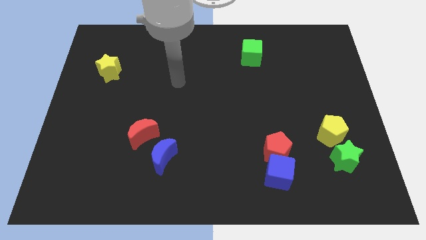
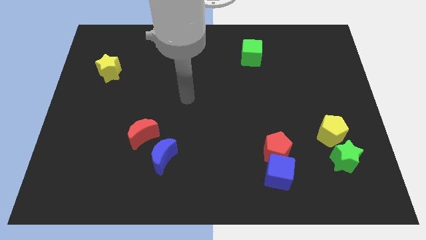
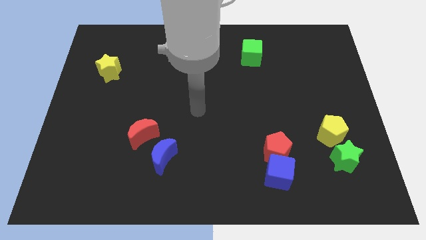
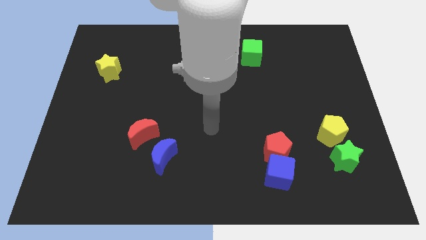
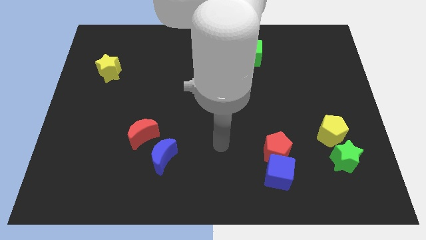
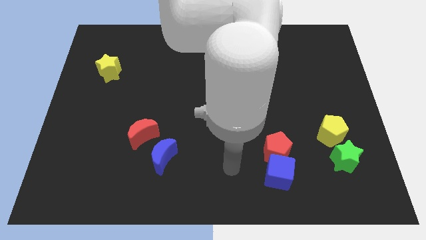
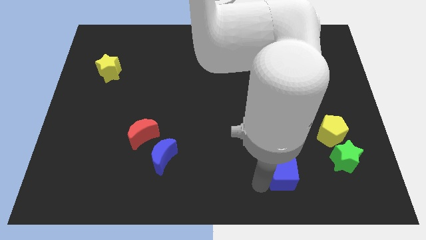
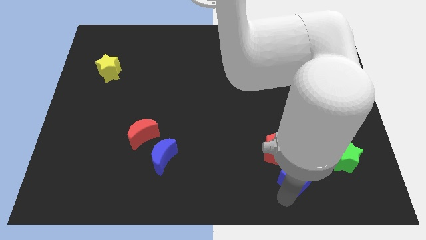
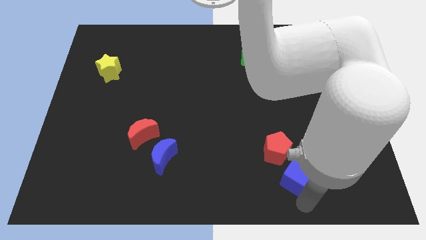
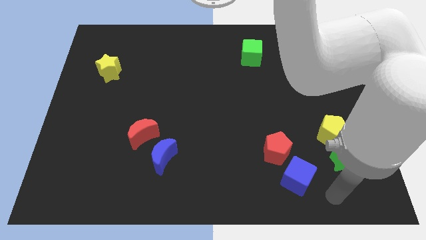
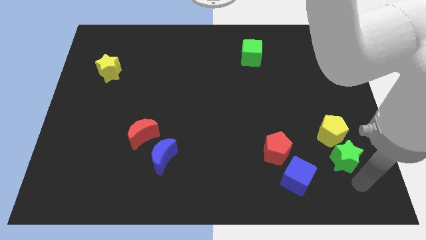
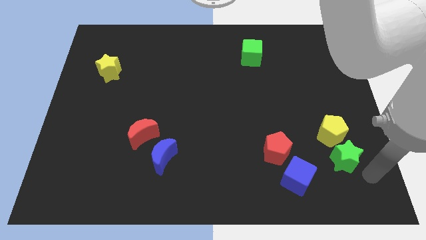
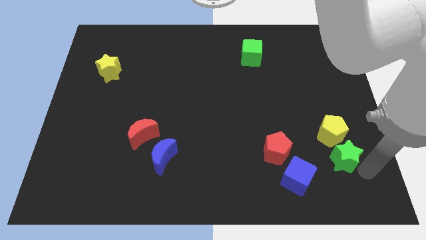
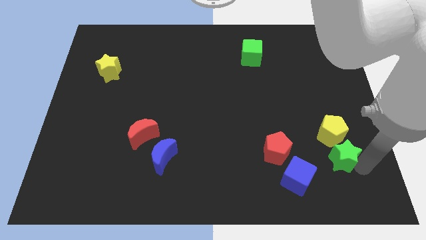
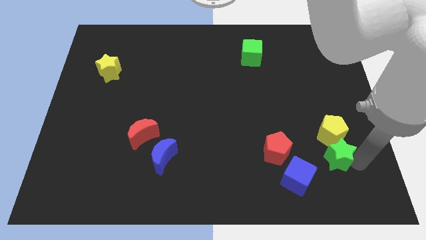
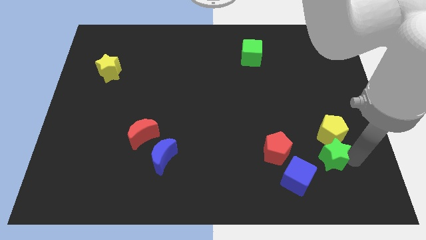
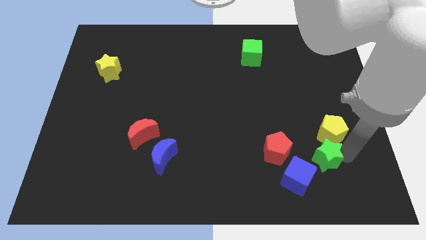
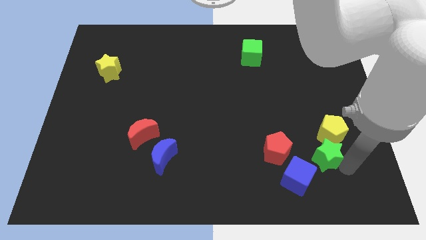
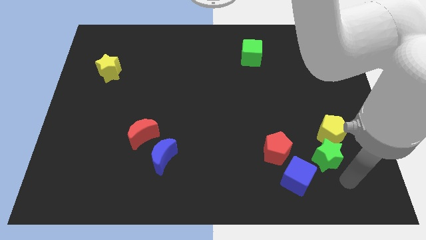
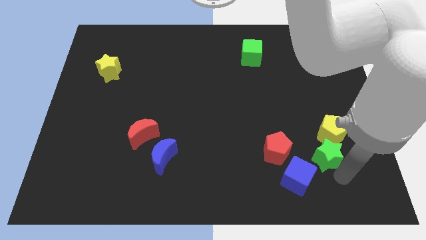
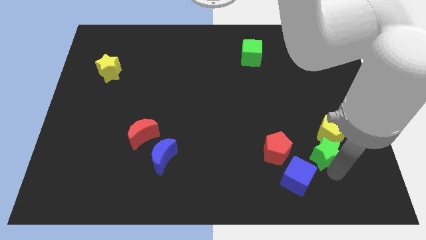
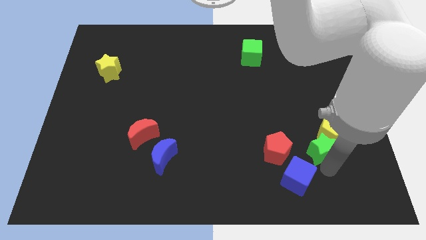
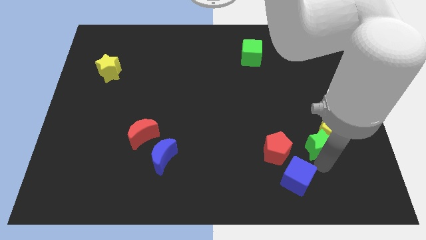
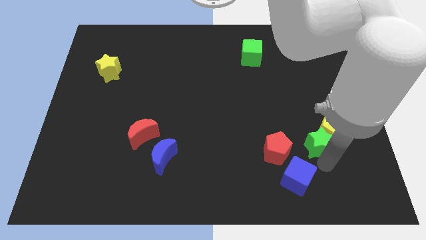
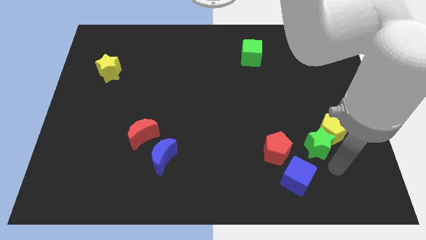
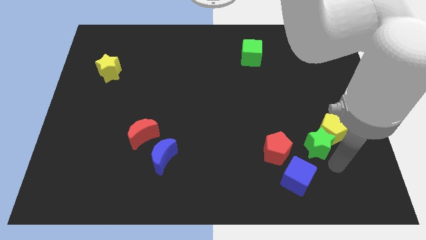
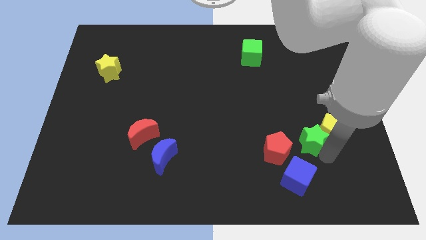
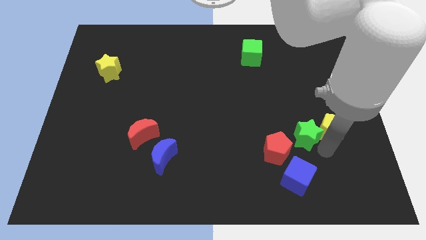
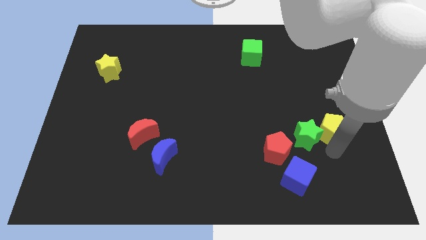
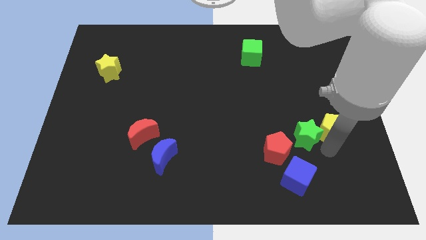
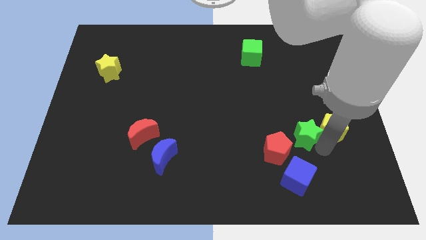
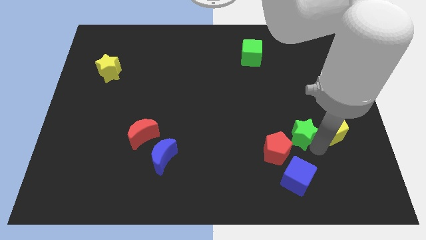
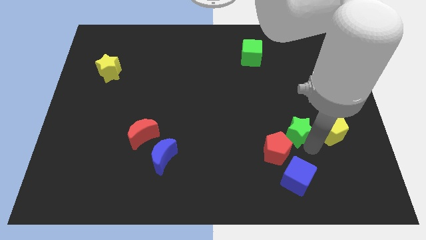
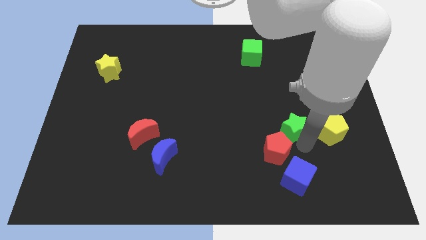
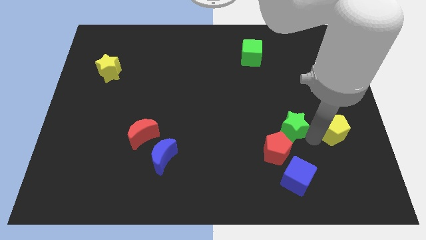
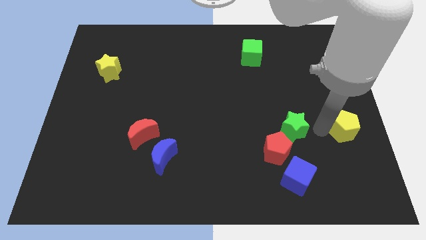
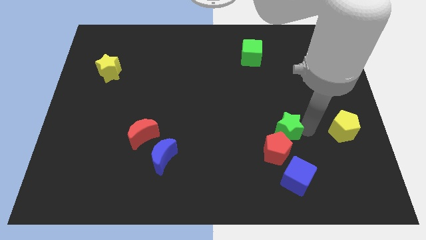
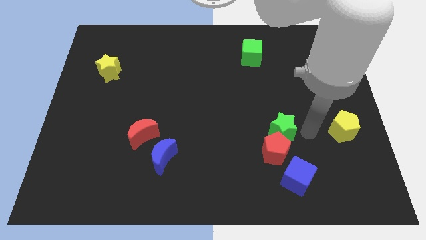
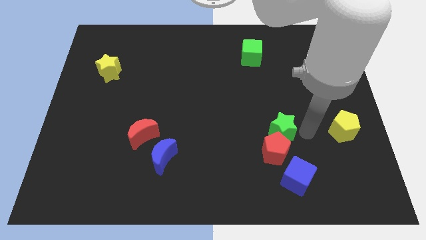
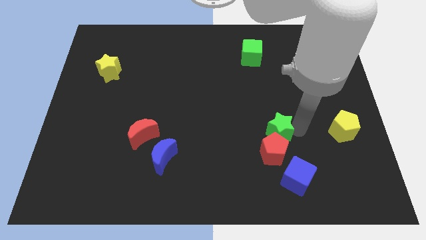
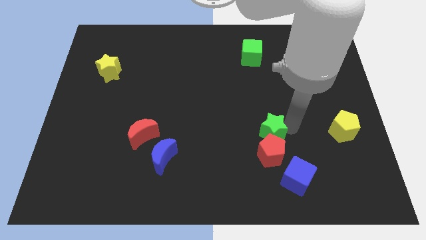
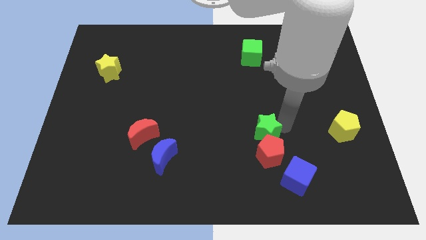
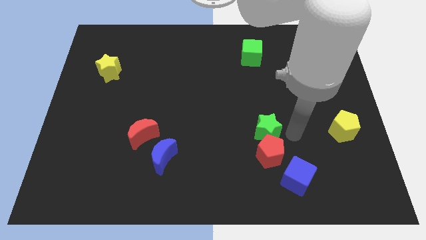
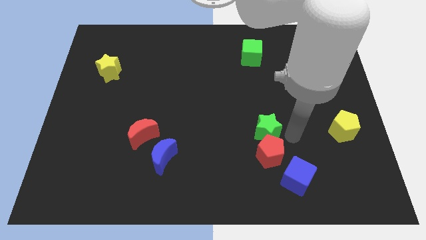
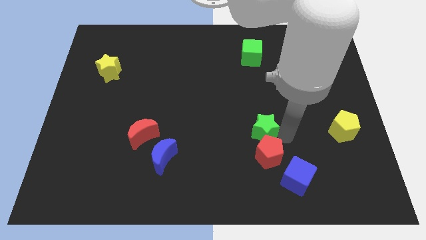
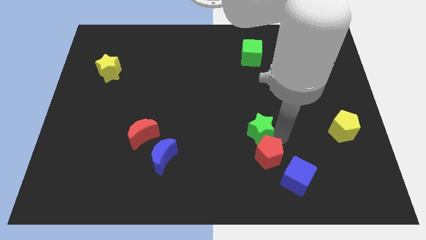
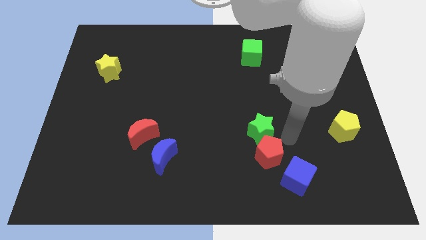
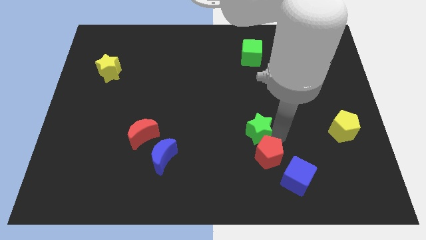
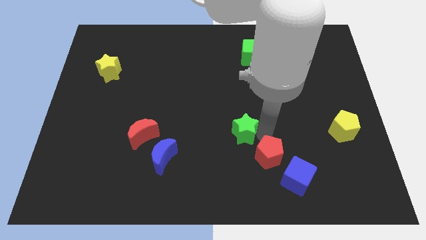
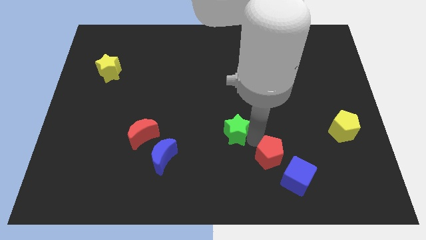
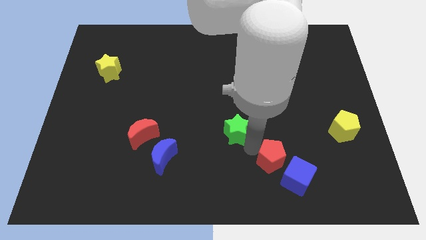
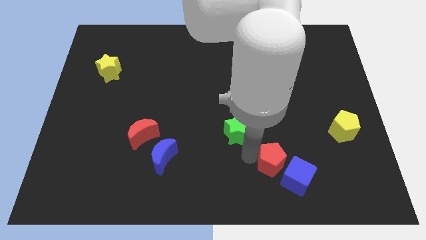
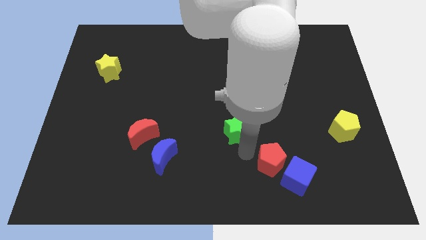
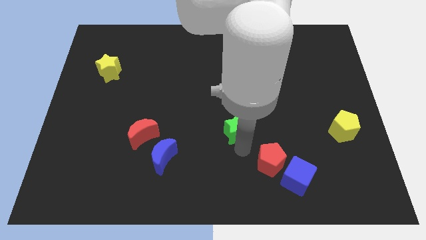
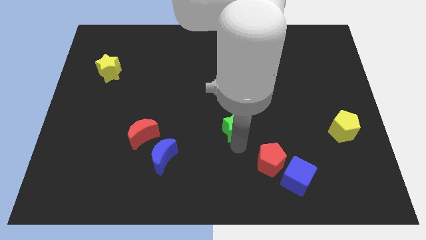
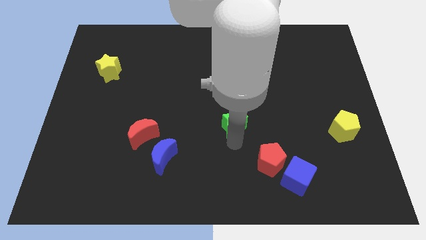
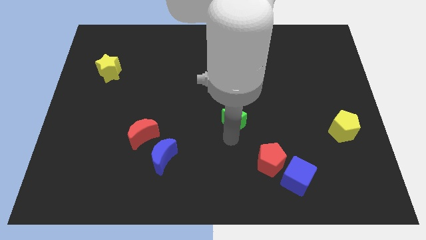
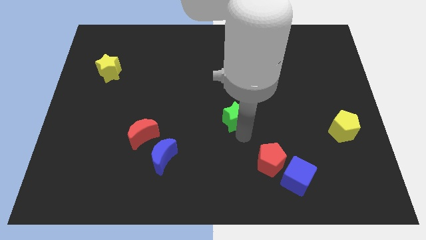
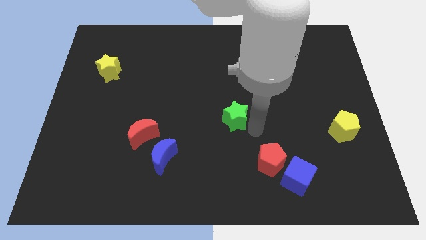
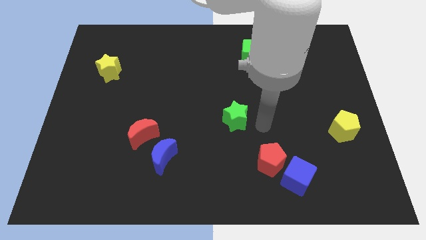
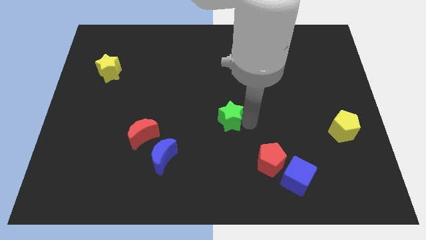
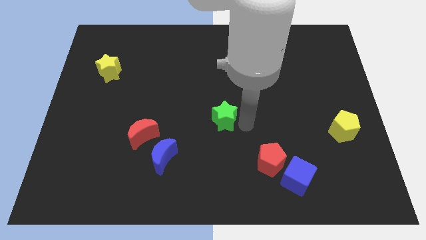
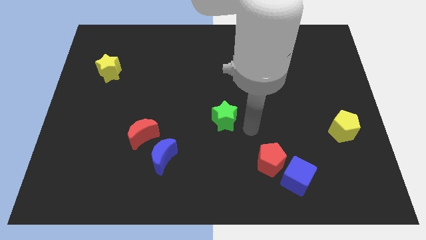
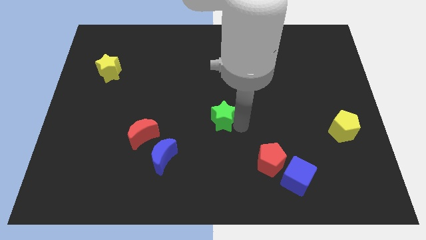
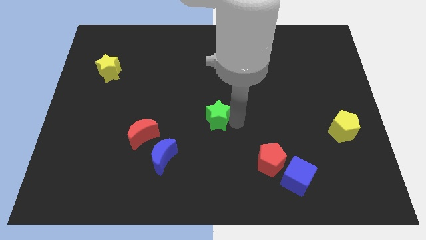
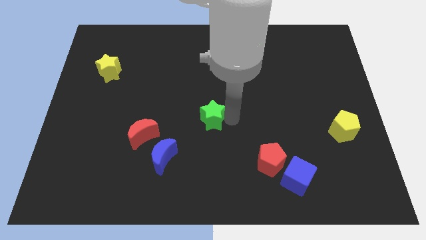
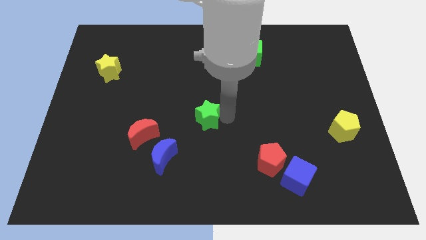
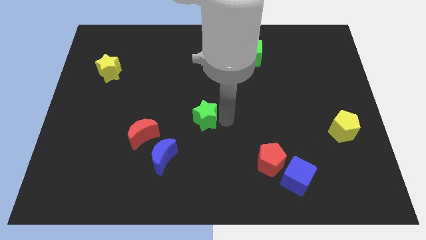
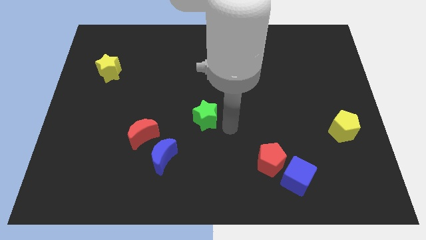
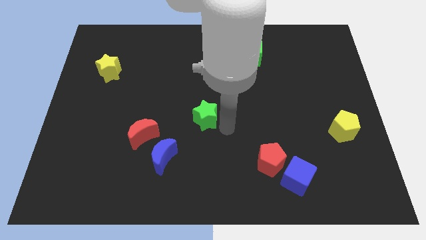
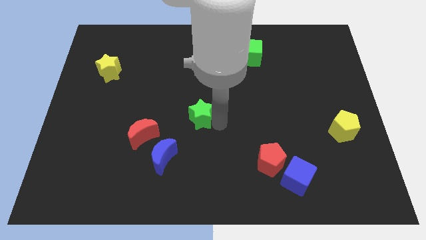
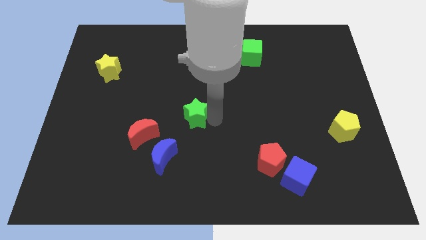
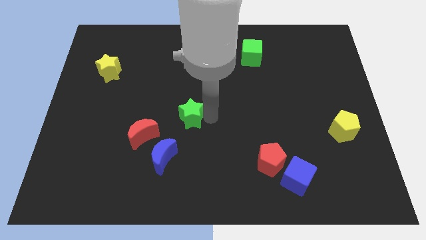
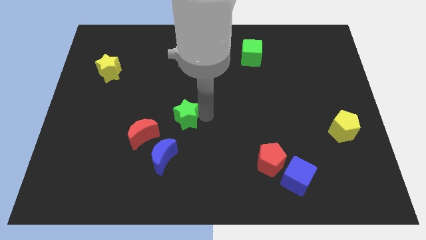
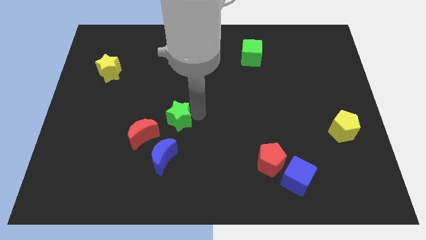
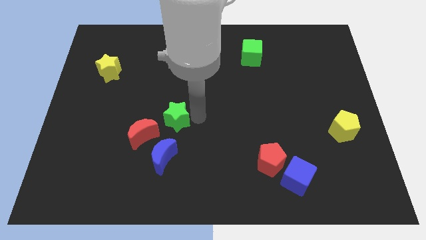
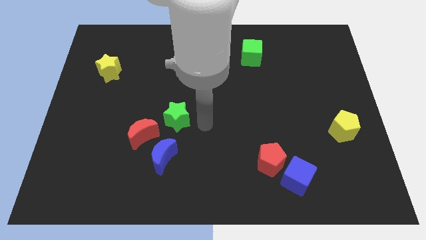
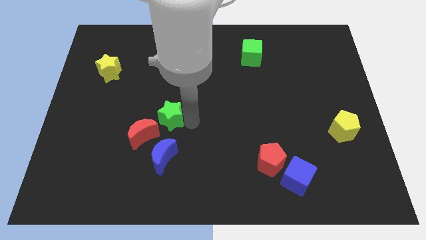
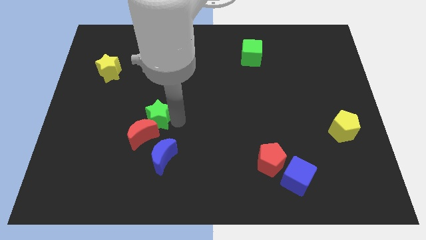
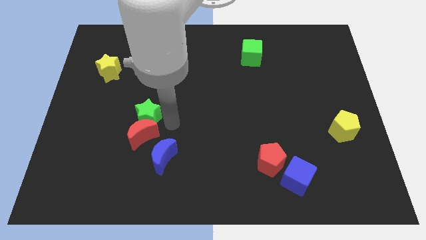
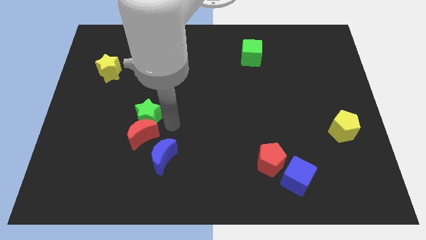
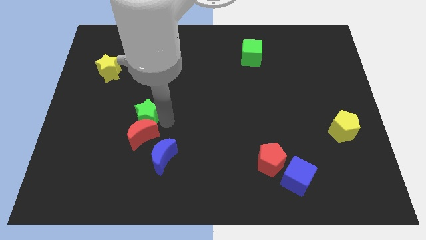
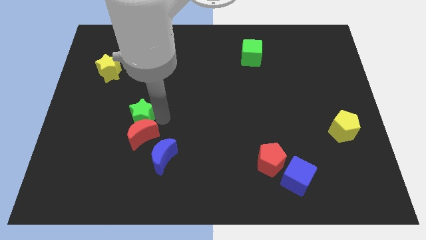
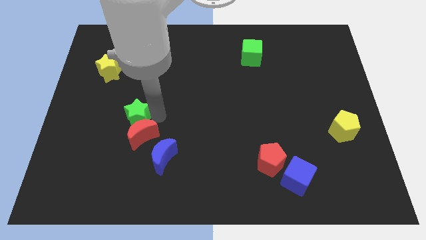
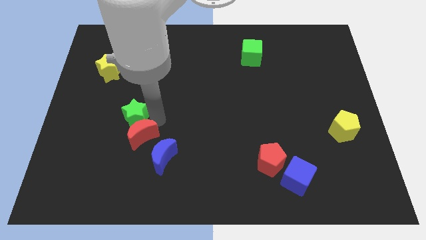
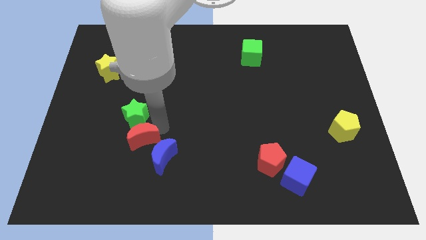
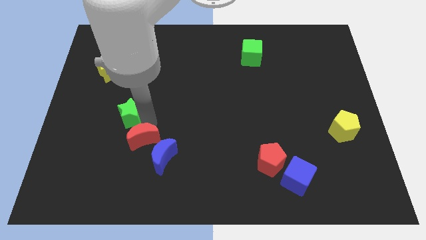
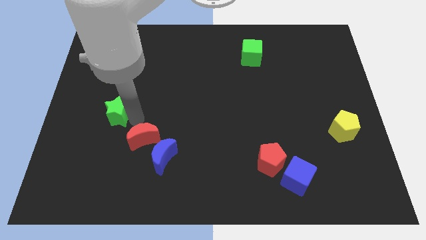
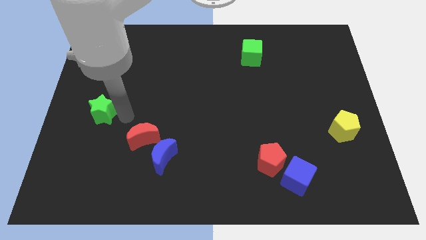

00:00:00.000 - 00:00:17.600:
push the green star to the left side of the board
